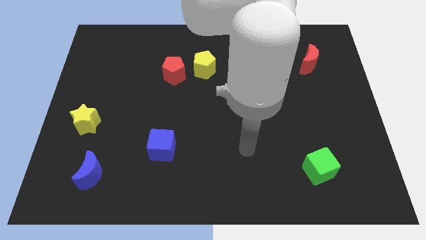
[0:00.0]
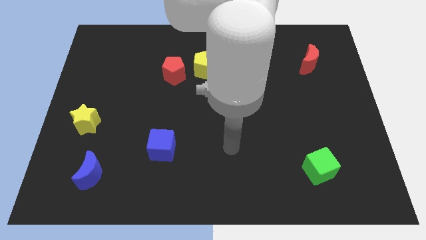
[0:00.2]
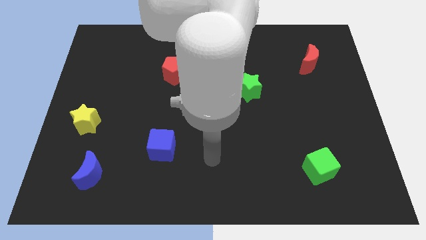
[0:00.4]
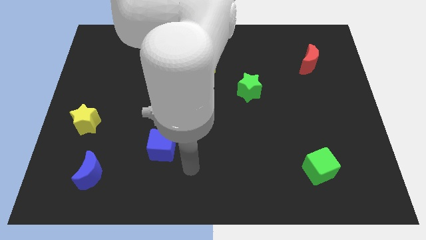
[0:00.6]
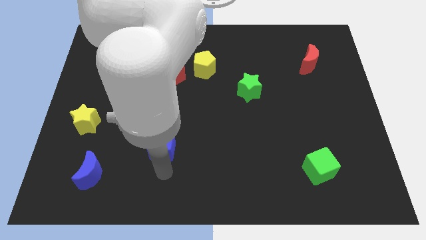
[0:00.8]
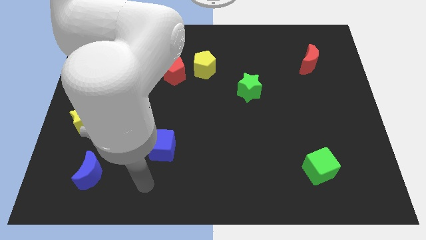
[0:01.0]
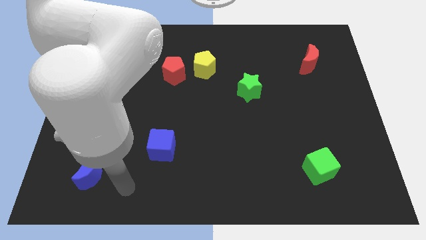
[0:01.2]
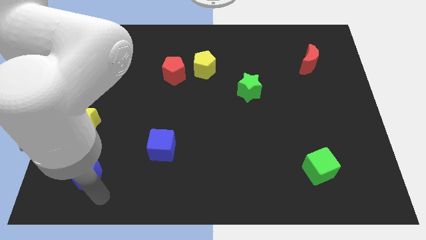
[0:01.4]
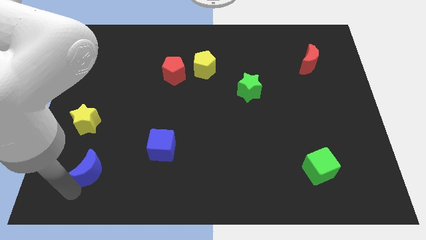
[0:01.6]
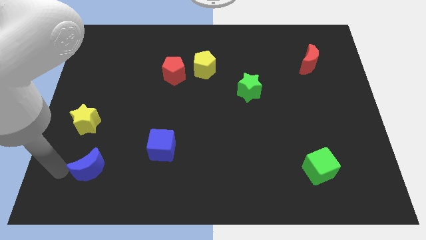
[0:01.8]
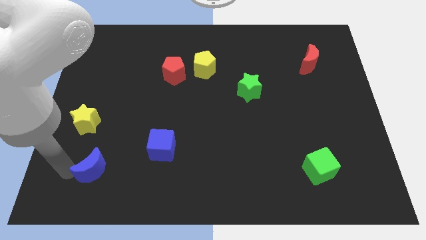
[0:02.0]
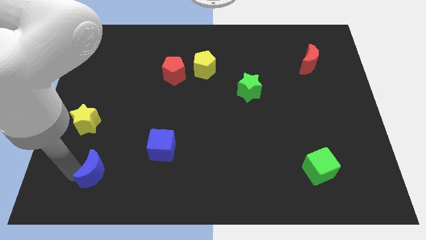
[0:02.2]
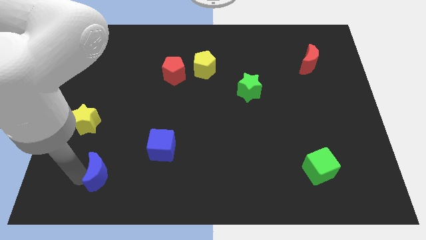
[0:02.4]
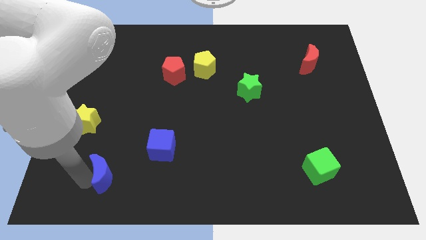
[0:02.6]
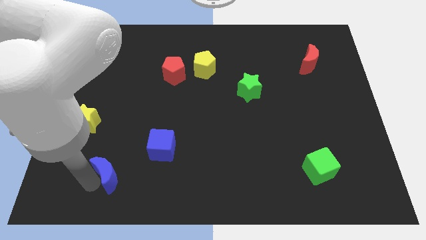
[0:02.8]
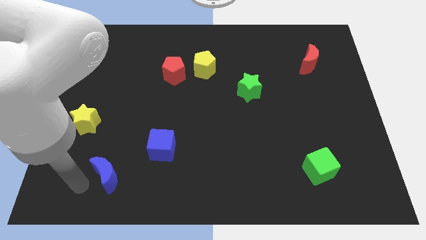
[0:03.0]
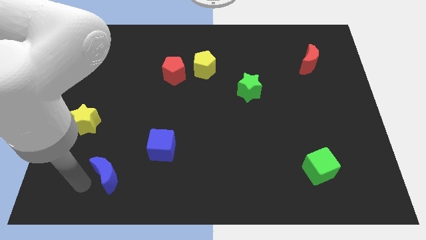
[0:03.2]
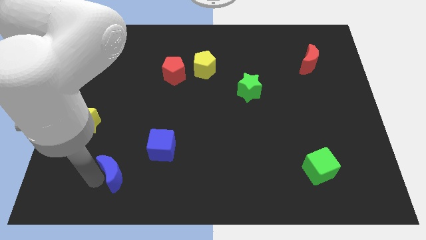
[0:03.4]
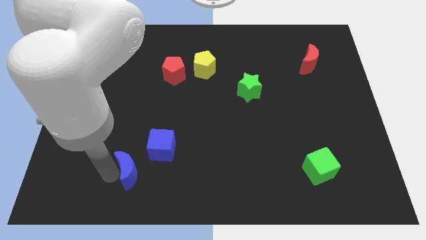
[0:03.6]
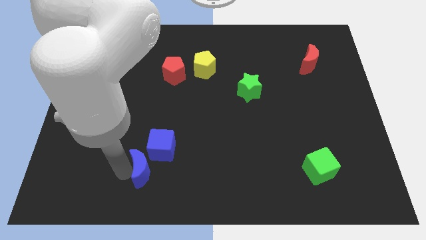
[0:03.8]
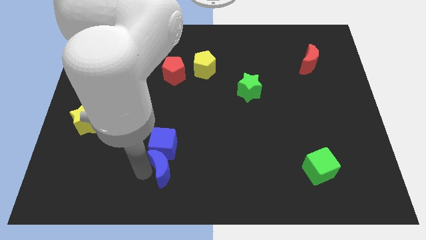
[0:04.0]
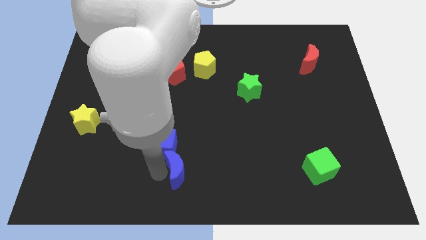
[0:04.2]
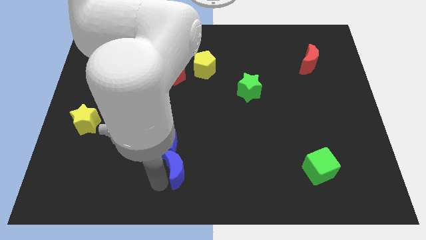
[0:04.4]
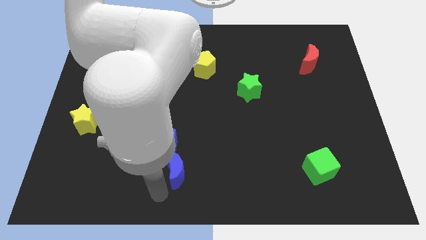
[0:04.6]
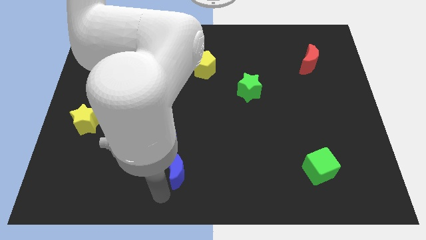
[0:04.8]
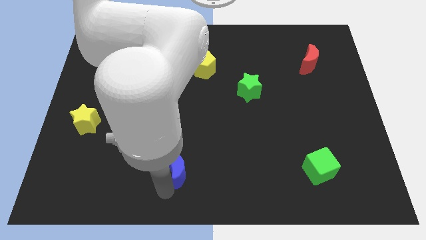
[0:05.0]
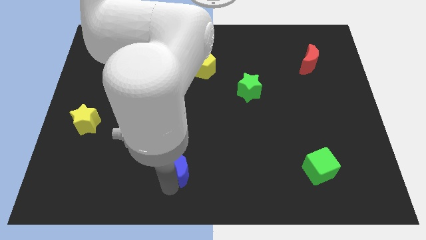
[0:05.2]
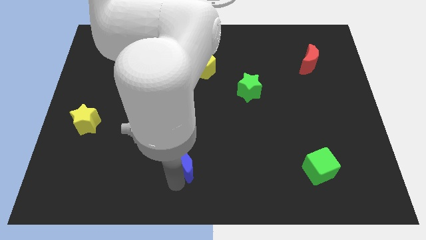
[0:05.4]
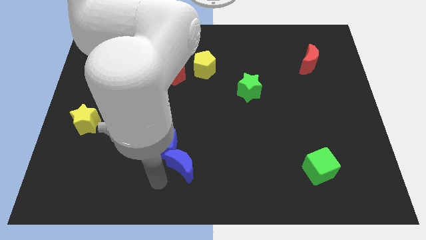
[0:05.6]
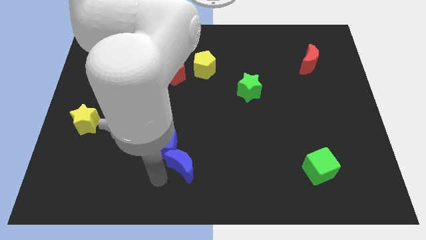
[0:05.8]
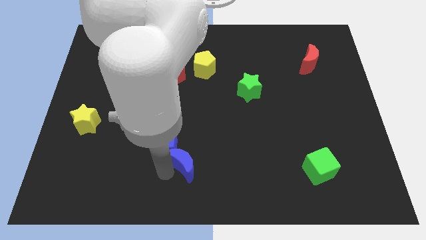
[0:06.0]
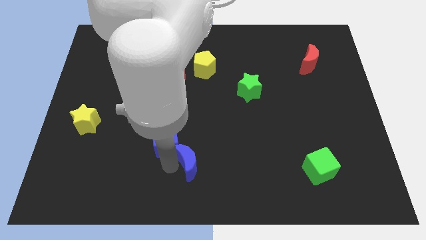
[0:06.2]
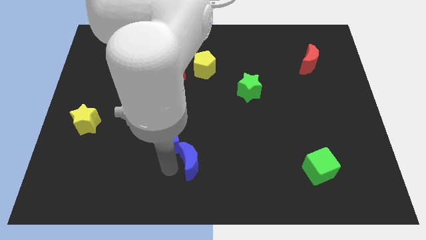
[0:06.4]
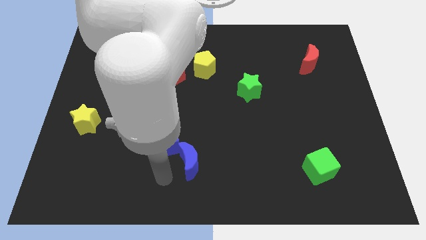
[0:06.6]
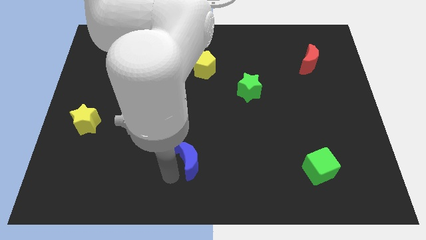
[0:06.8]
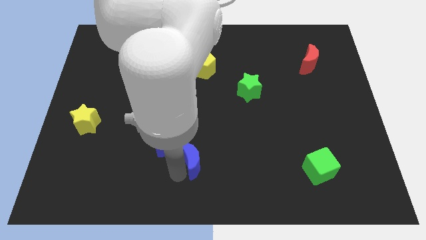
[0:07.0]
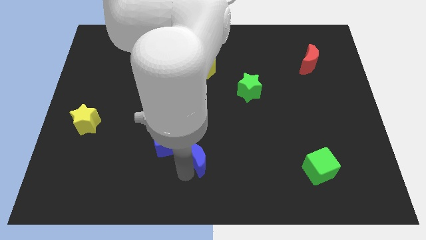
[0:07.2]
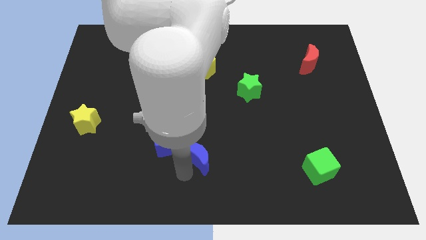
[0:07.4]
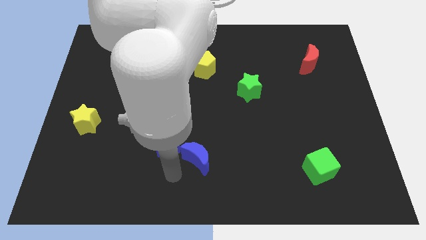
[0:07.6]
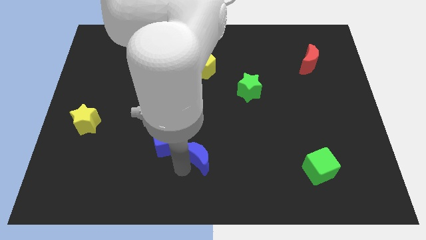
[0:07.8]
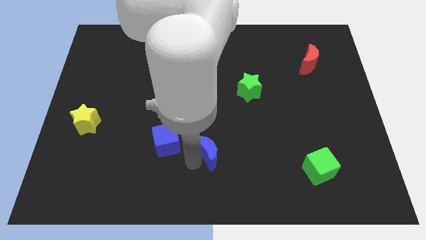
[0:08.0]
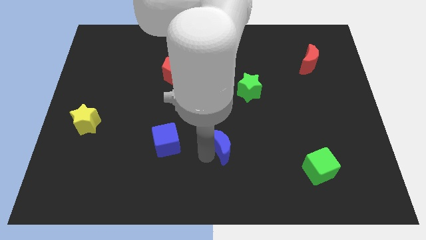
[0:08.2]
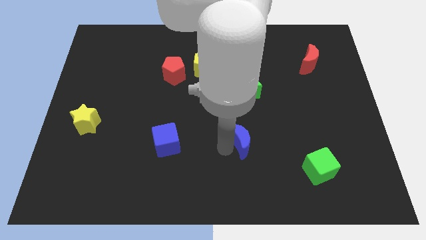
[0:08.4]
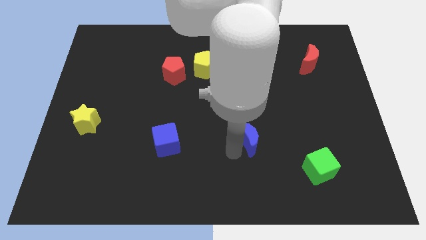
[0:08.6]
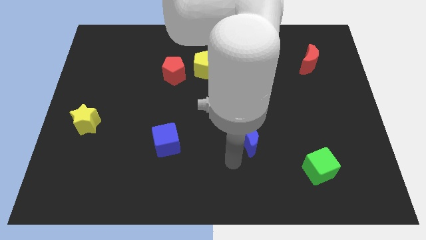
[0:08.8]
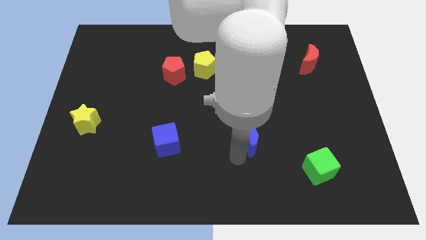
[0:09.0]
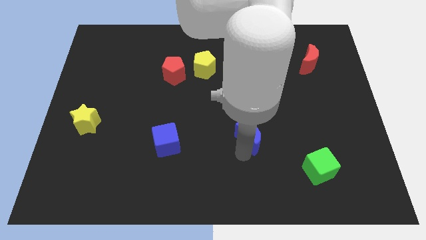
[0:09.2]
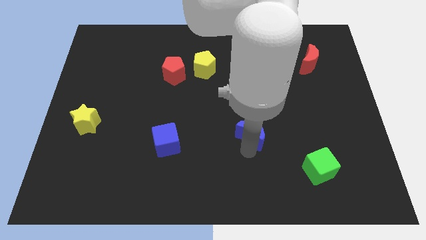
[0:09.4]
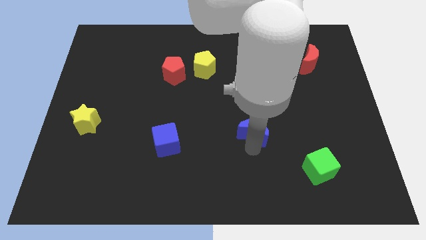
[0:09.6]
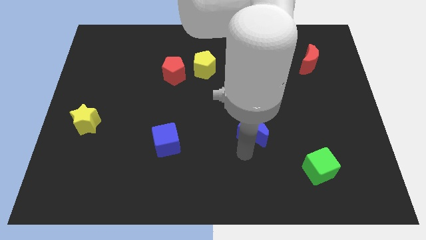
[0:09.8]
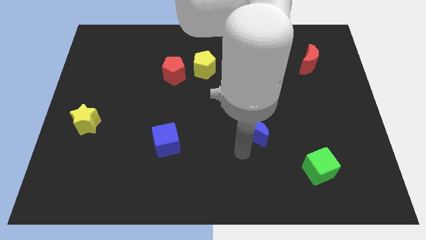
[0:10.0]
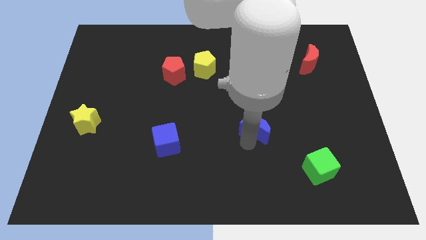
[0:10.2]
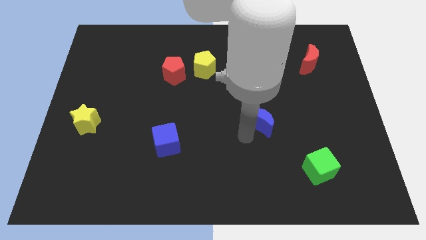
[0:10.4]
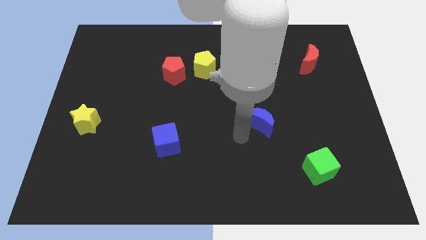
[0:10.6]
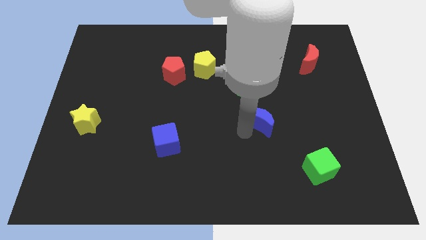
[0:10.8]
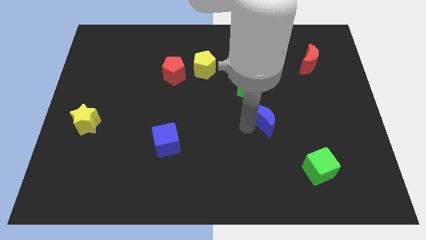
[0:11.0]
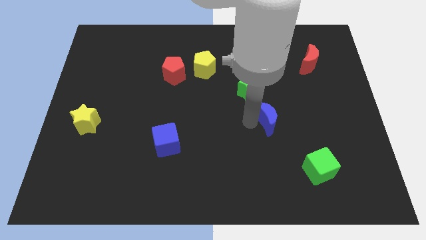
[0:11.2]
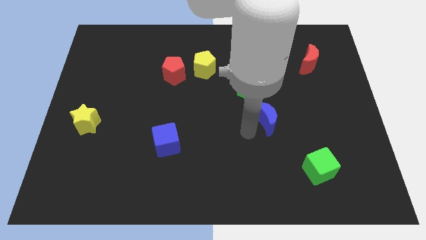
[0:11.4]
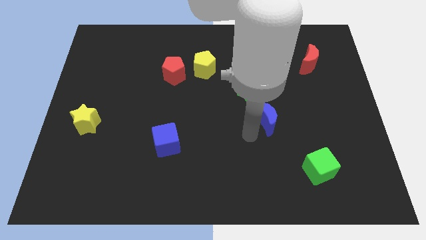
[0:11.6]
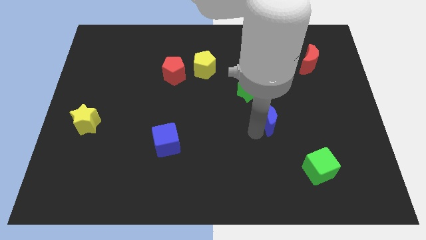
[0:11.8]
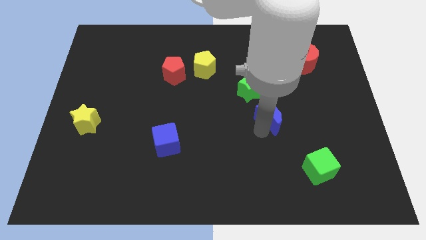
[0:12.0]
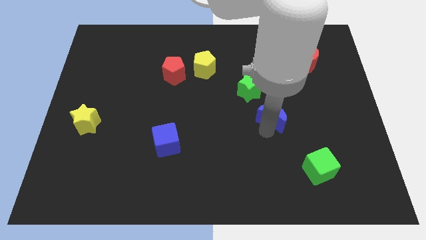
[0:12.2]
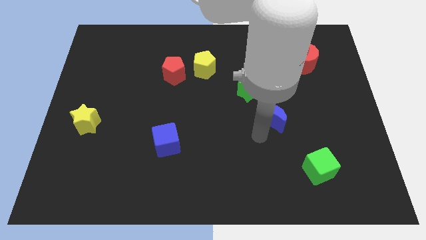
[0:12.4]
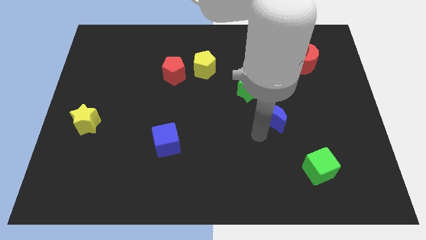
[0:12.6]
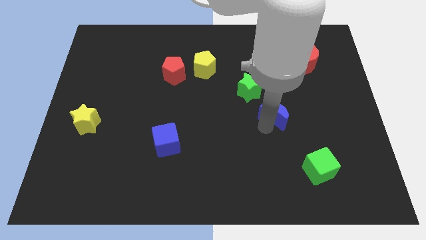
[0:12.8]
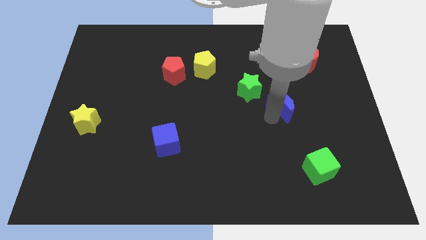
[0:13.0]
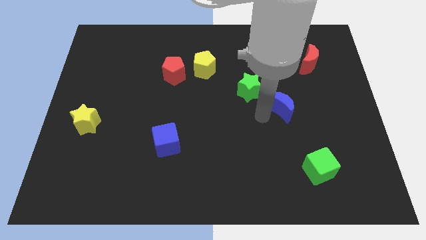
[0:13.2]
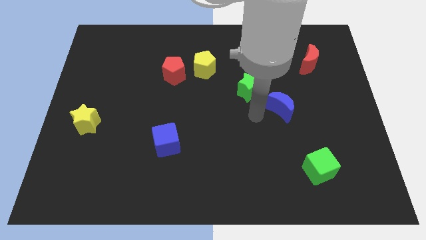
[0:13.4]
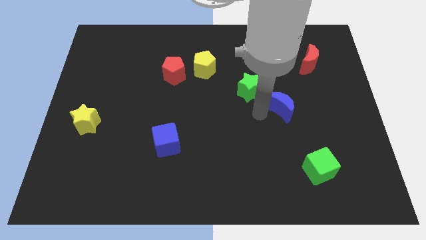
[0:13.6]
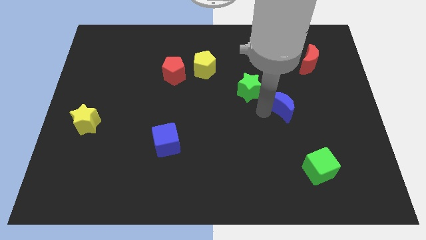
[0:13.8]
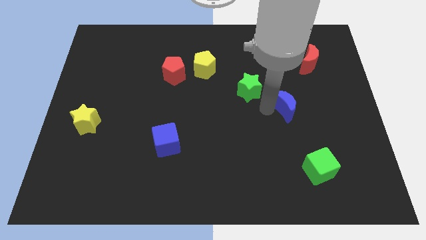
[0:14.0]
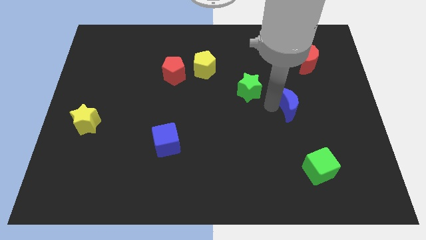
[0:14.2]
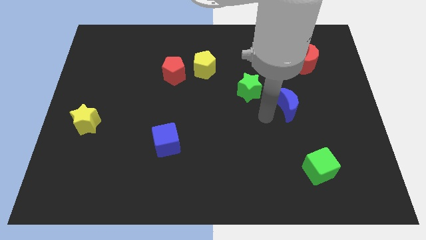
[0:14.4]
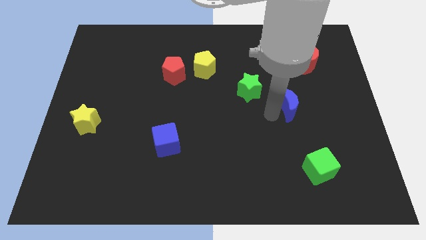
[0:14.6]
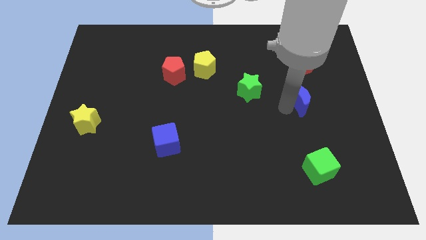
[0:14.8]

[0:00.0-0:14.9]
push the blue moon below the red moon
